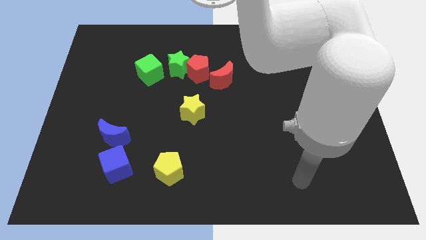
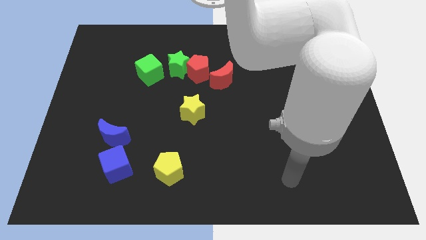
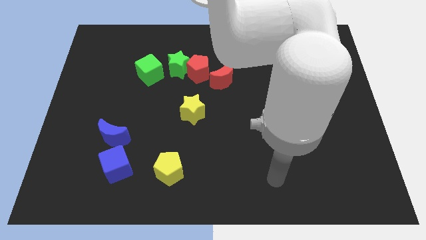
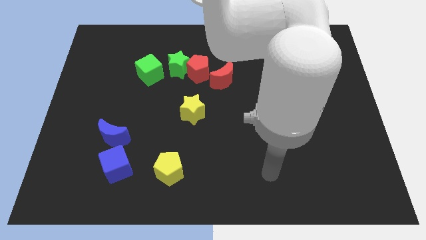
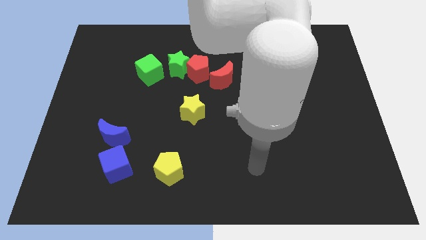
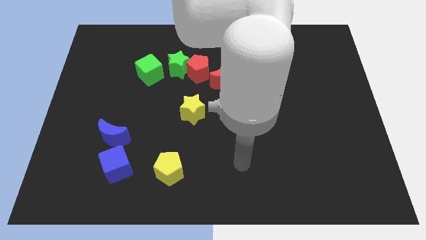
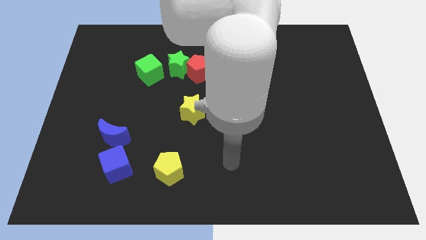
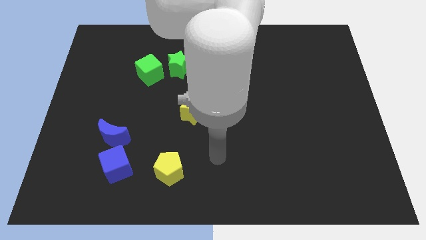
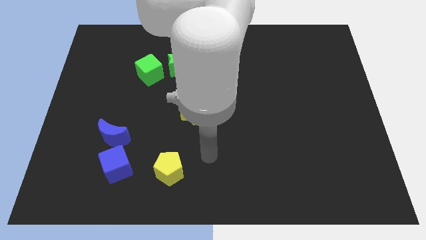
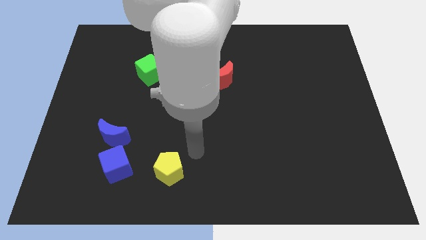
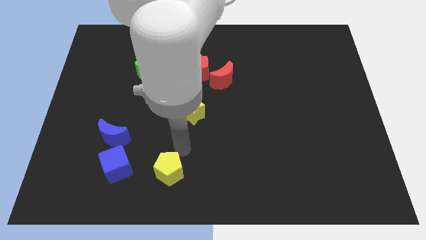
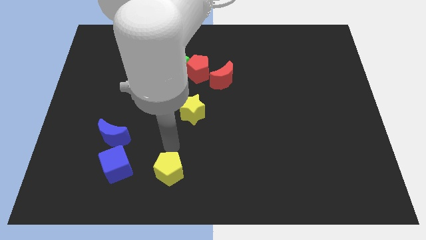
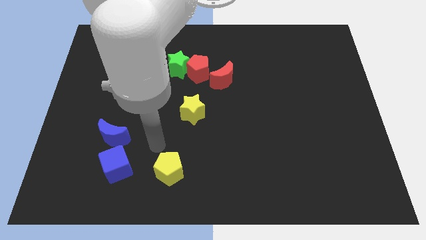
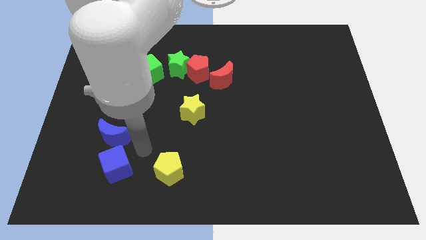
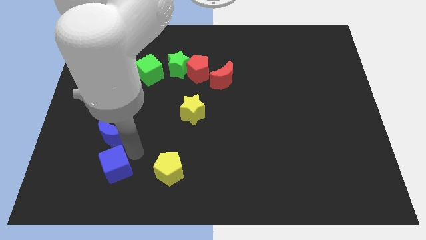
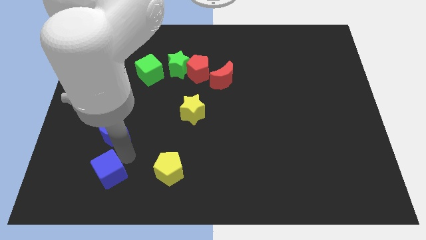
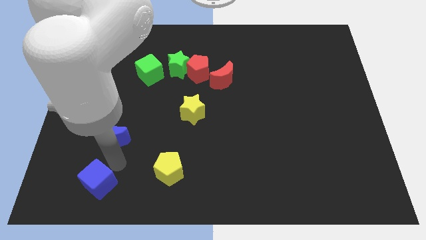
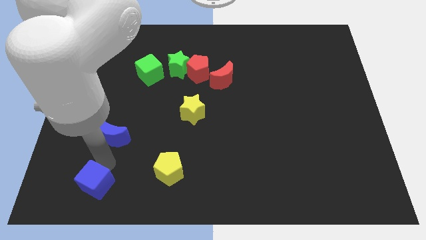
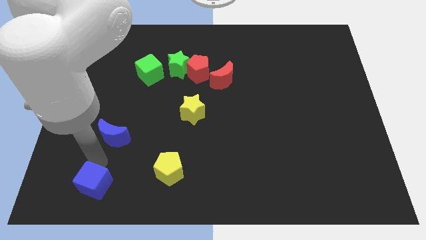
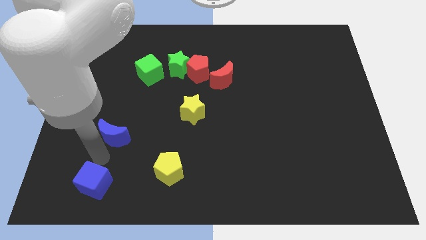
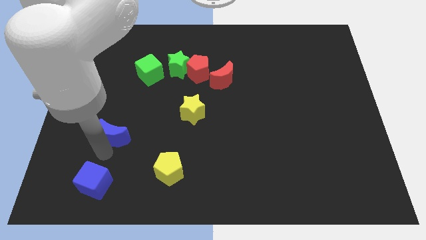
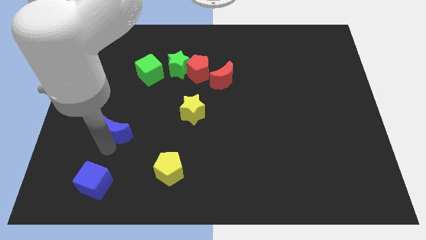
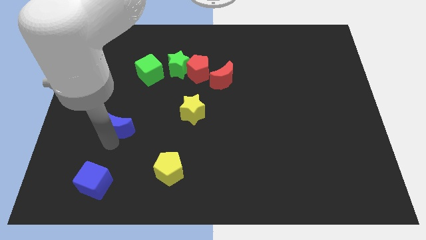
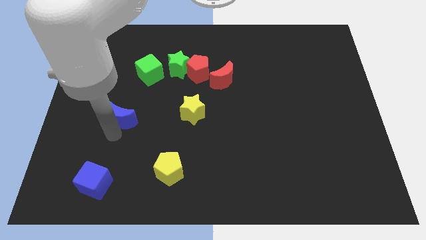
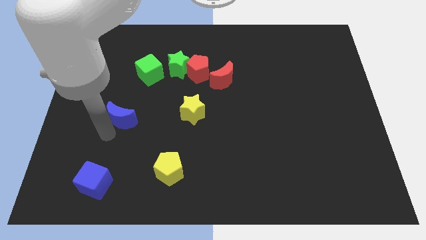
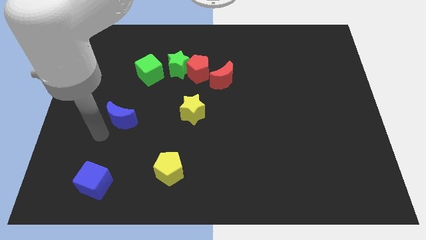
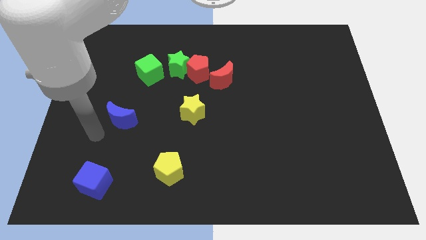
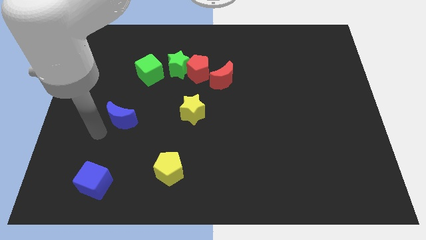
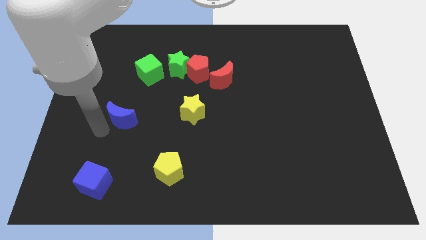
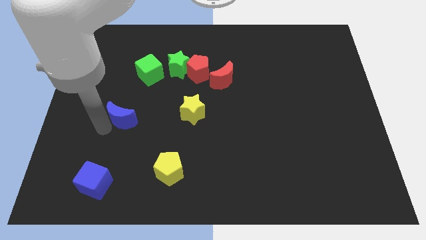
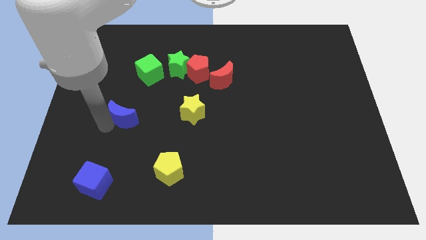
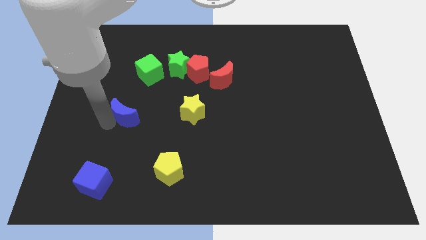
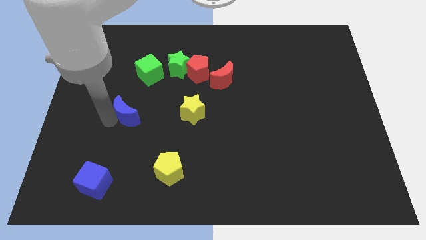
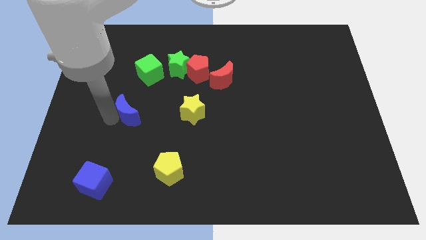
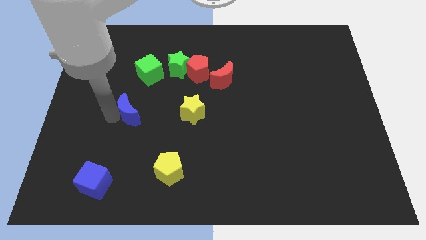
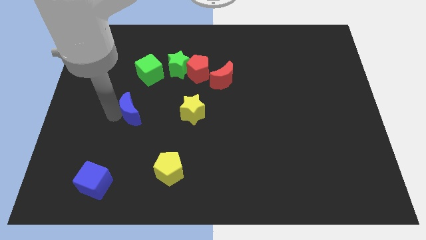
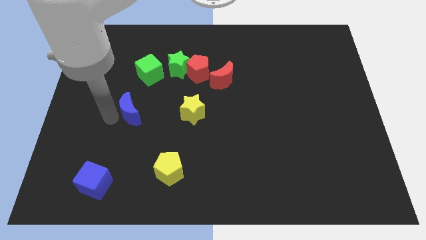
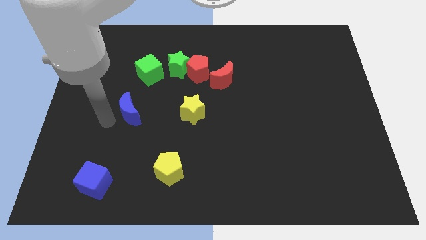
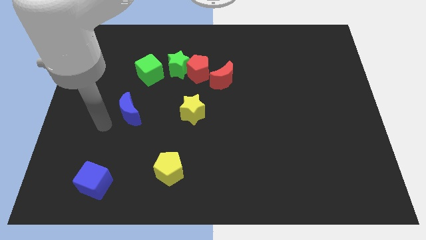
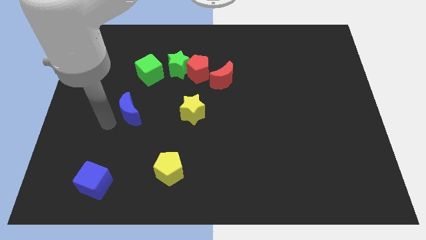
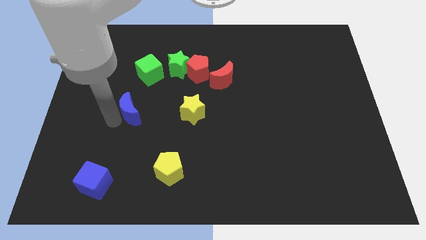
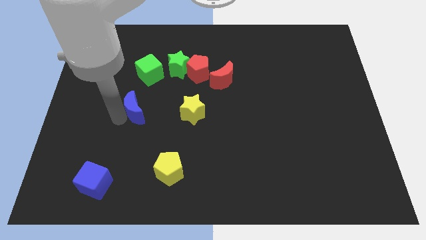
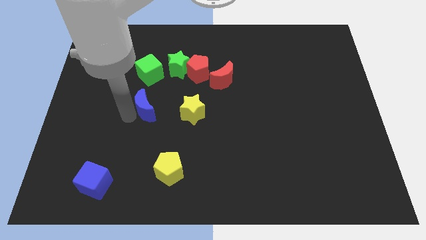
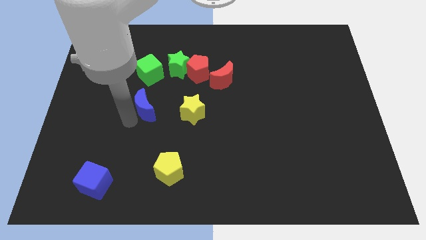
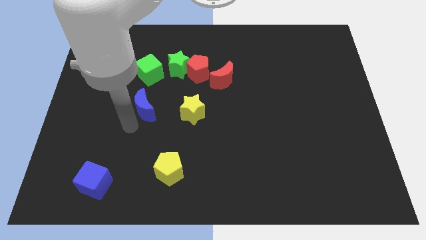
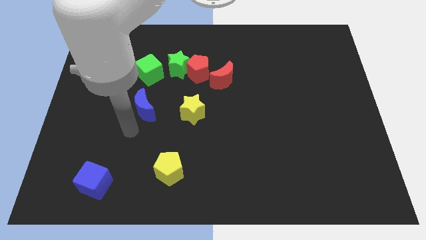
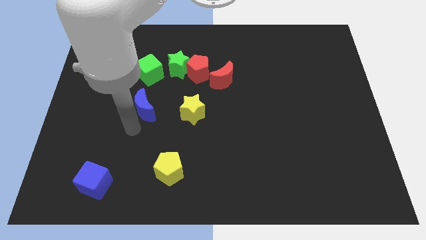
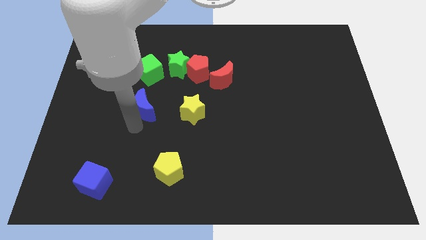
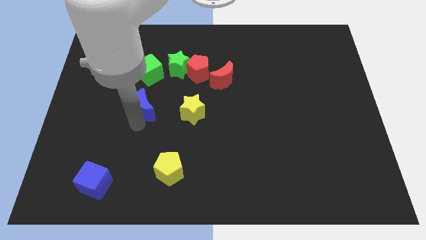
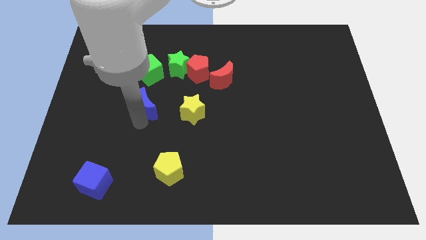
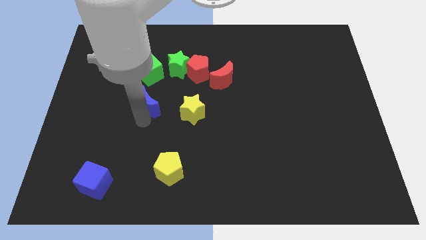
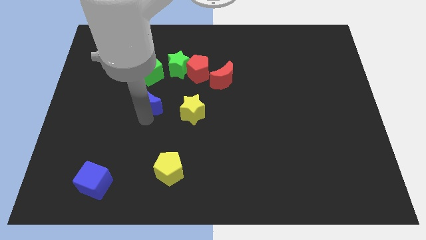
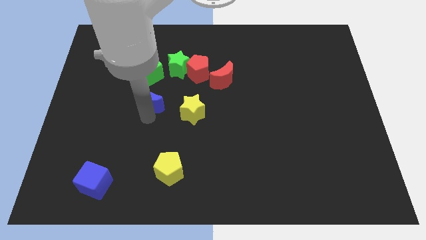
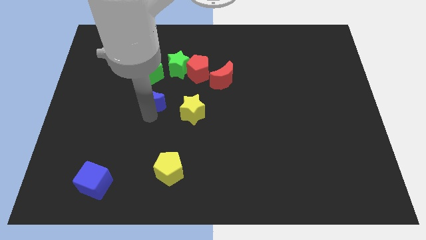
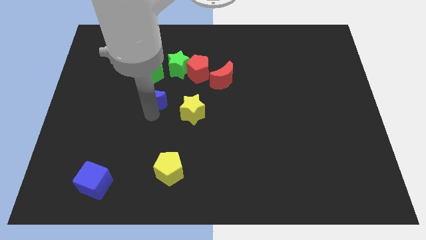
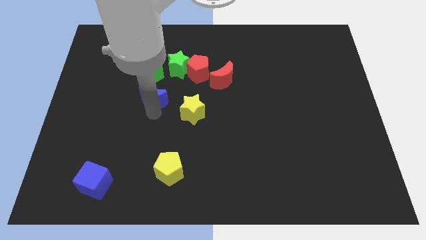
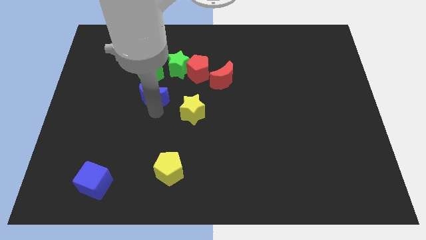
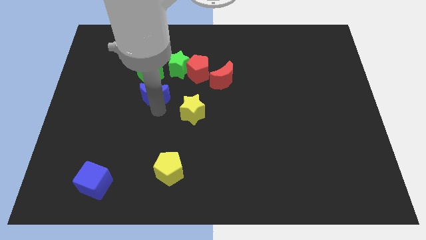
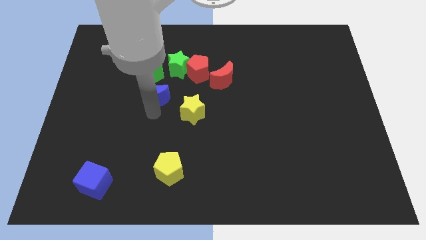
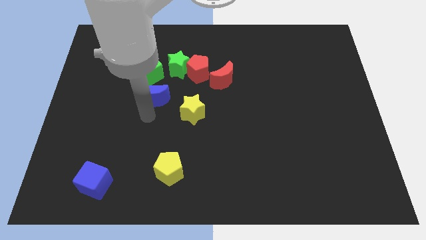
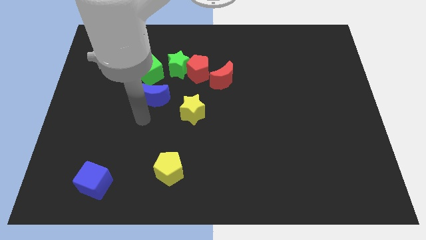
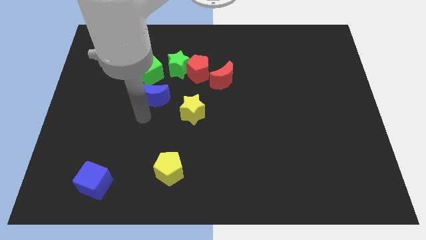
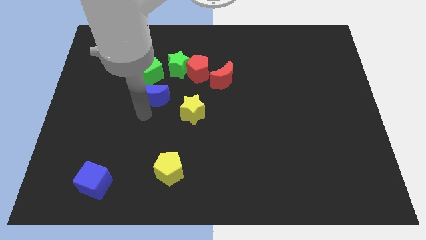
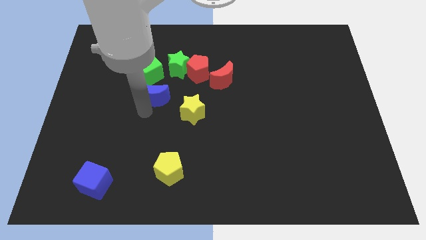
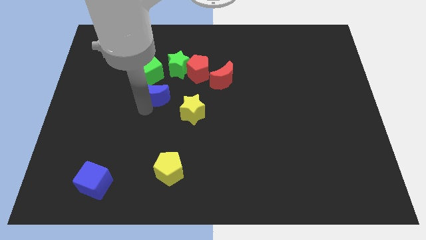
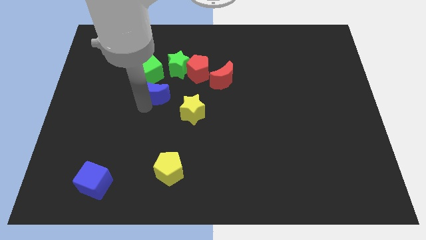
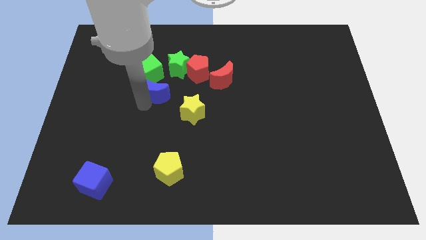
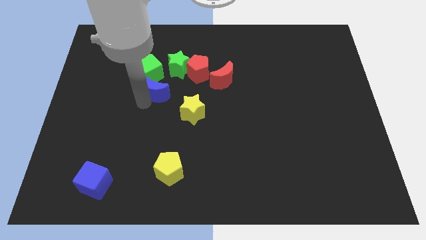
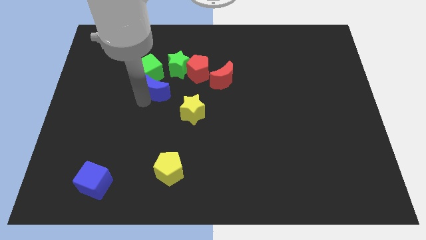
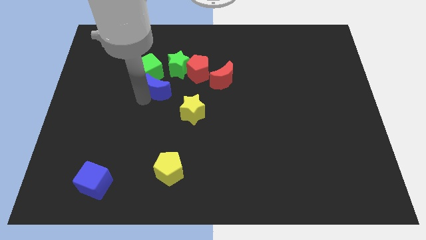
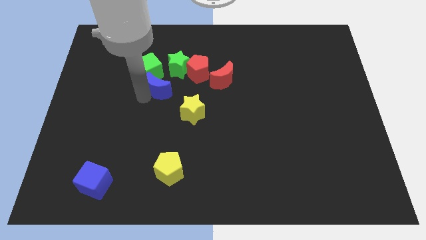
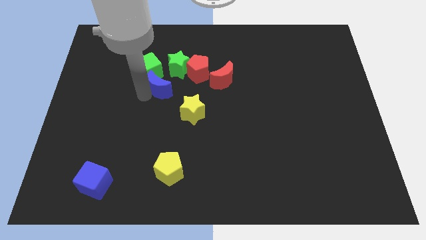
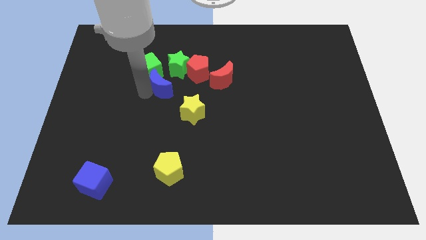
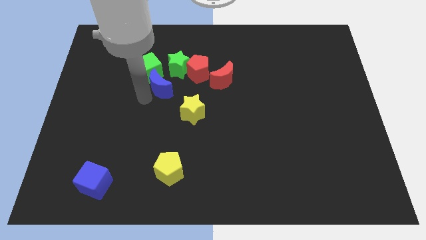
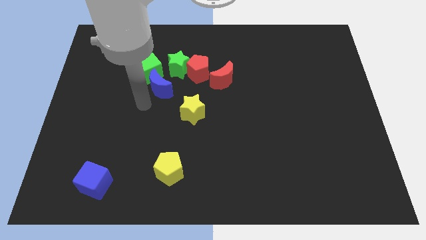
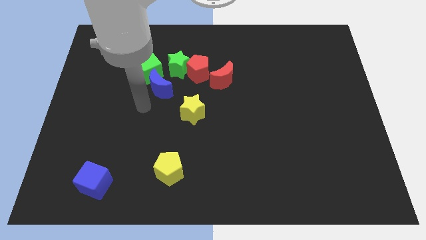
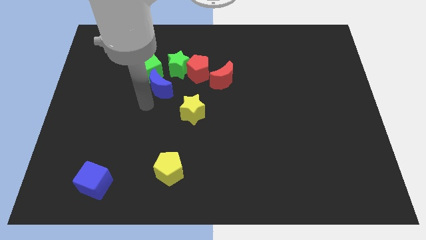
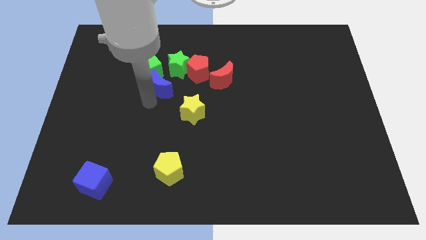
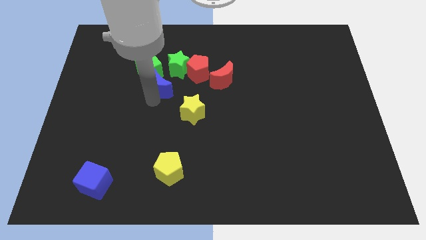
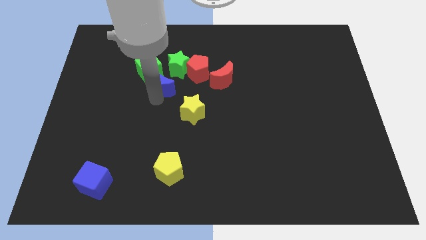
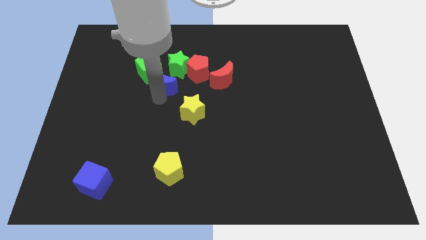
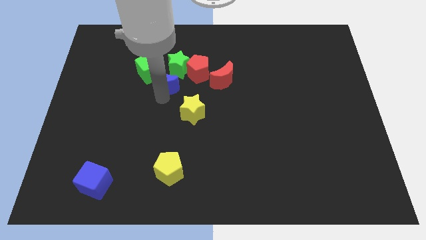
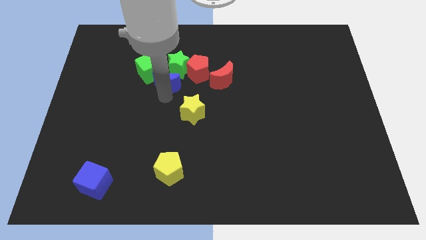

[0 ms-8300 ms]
slide the blue moon close to the green star
